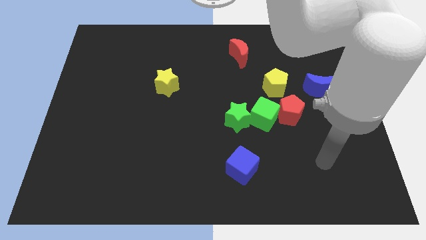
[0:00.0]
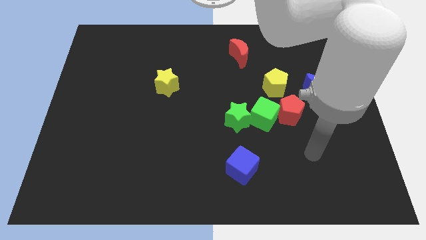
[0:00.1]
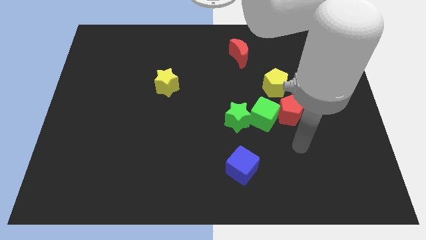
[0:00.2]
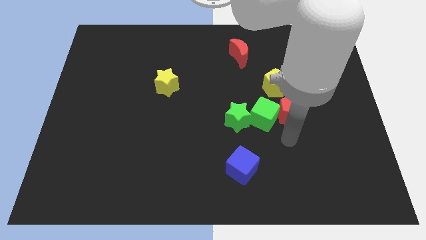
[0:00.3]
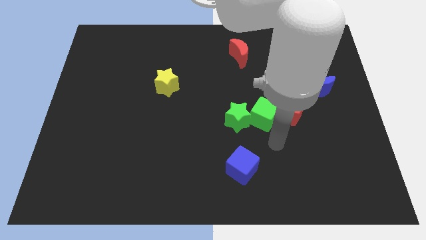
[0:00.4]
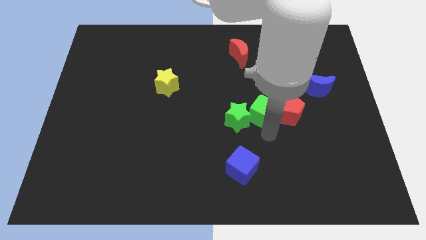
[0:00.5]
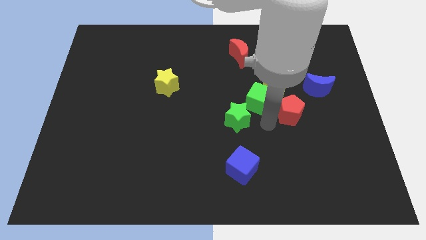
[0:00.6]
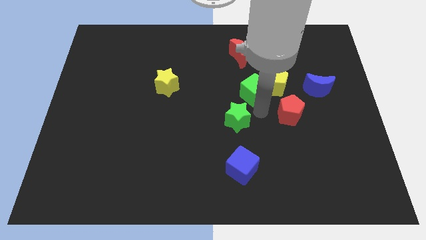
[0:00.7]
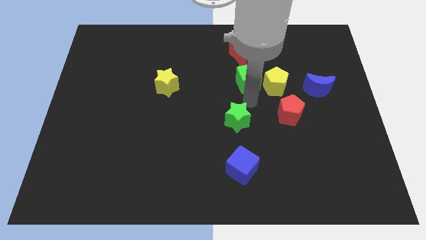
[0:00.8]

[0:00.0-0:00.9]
move the green star away from the green cube

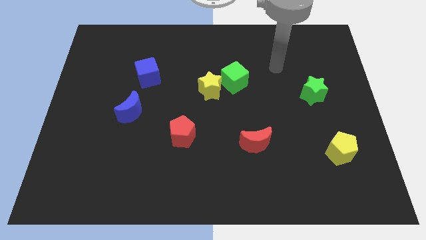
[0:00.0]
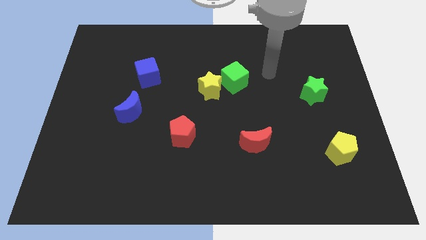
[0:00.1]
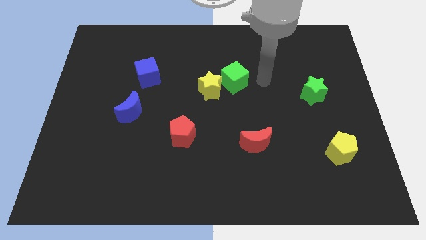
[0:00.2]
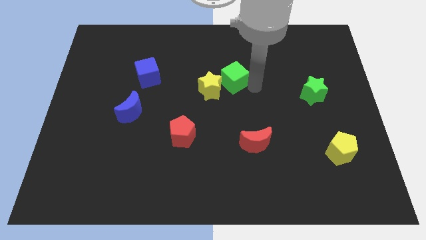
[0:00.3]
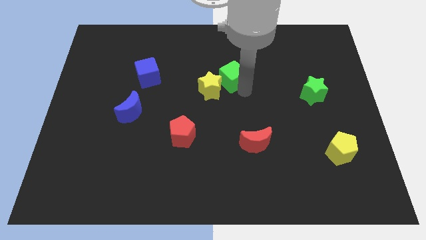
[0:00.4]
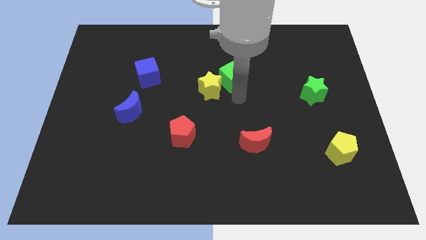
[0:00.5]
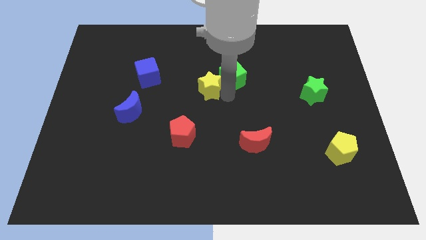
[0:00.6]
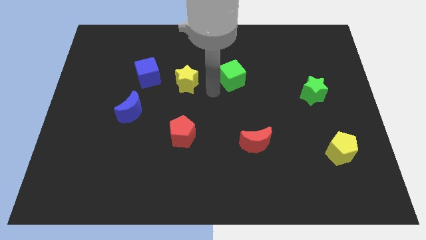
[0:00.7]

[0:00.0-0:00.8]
separate the green cube from the yellow star

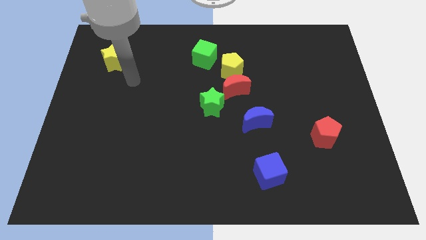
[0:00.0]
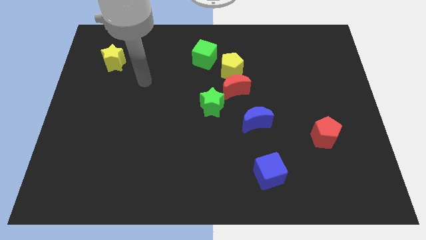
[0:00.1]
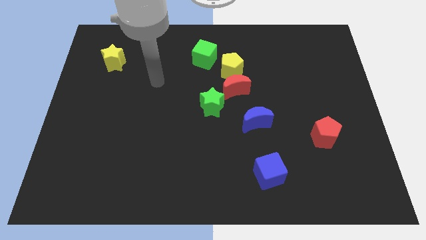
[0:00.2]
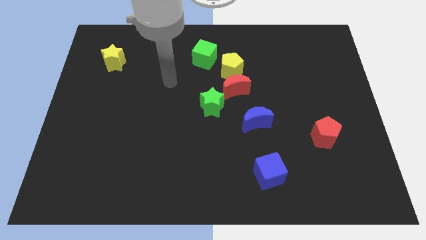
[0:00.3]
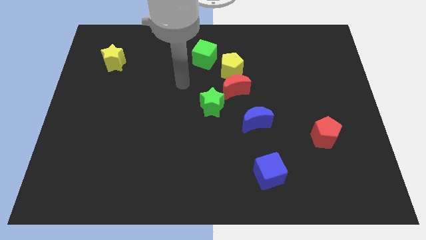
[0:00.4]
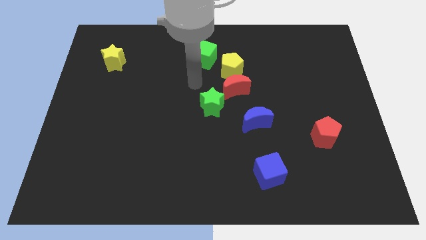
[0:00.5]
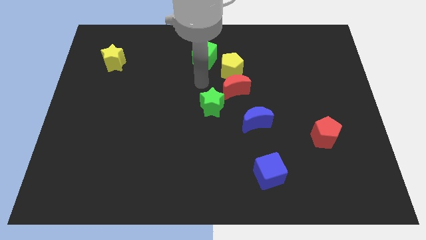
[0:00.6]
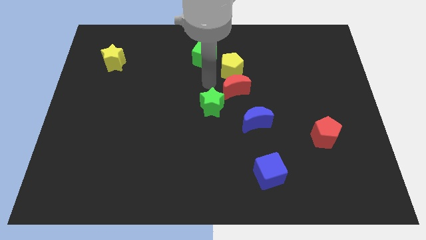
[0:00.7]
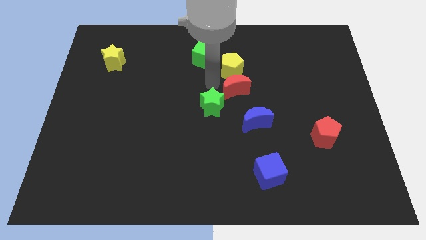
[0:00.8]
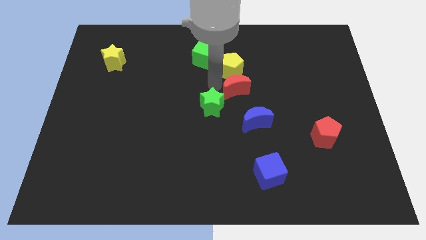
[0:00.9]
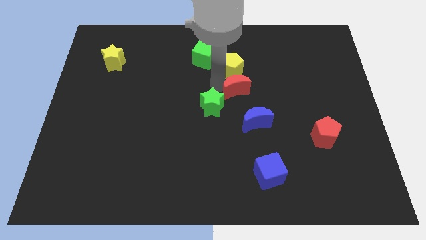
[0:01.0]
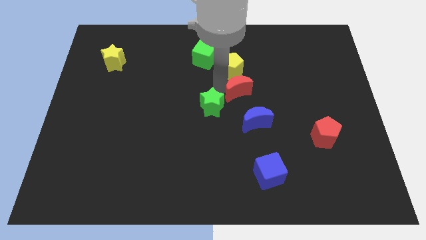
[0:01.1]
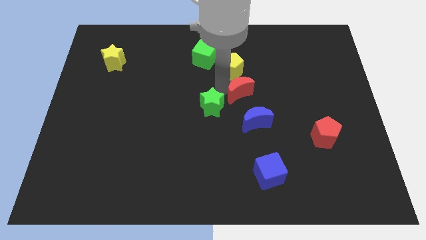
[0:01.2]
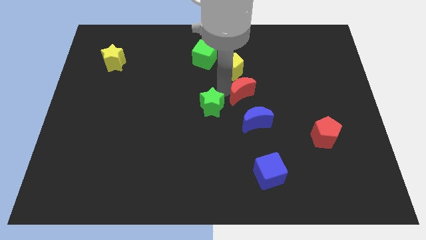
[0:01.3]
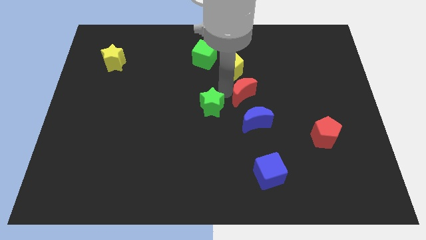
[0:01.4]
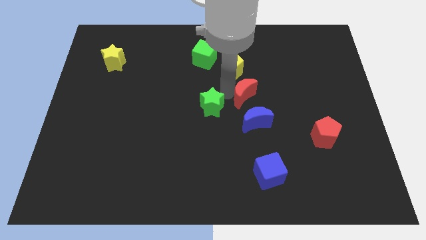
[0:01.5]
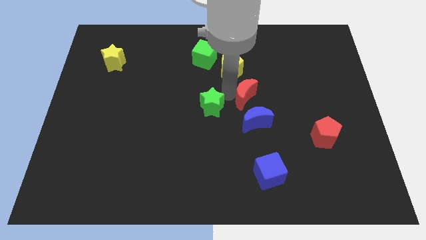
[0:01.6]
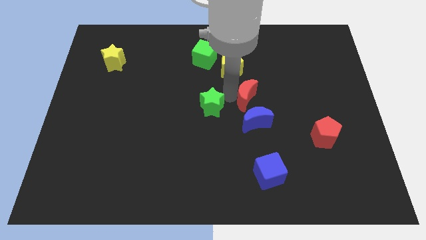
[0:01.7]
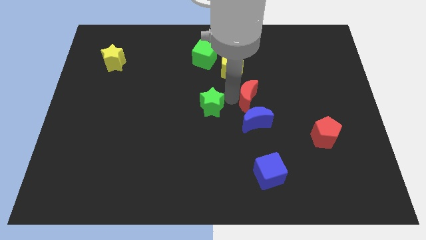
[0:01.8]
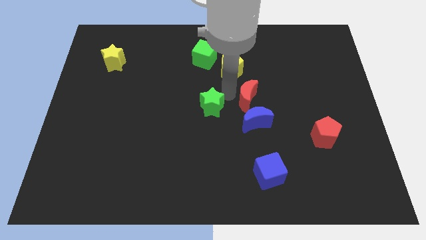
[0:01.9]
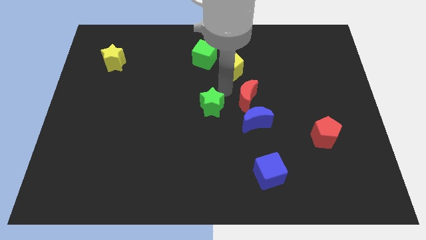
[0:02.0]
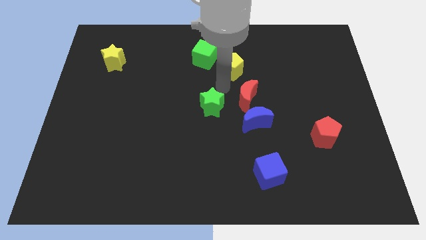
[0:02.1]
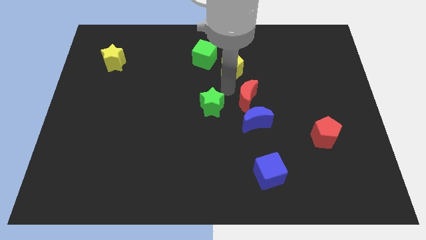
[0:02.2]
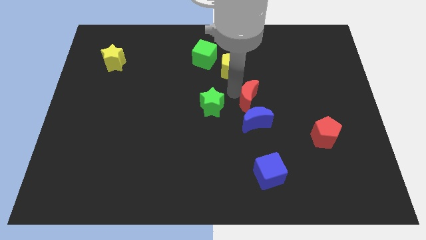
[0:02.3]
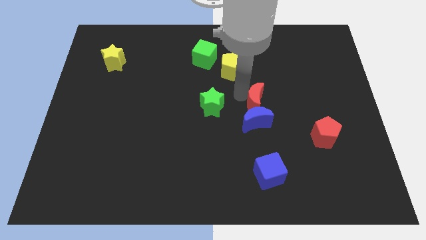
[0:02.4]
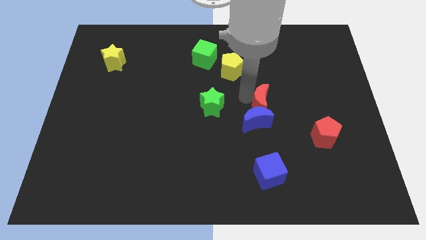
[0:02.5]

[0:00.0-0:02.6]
pull the red moon apart from the yellow pentagon and green star

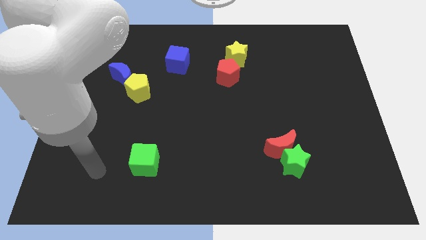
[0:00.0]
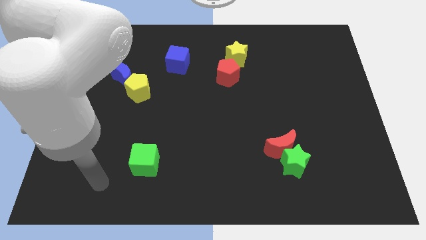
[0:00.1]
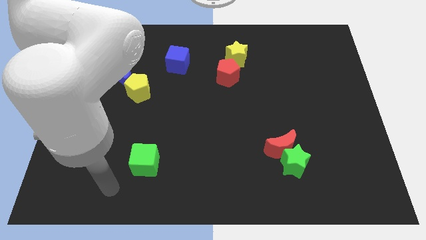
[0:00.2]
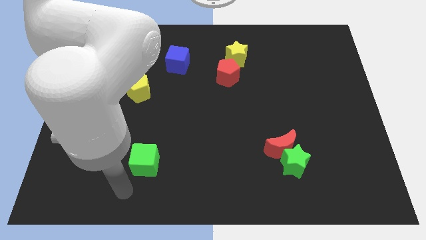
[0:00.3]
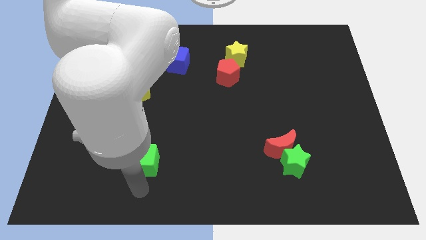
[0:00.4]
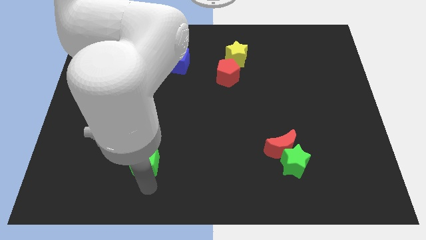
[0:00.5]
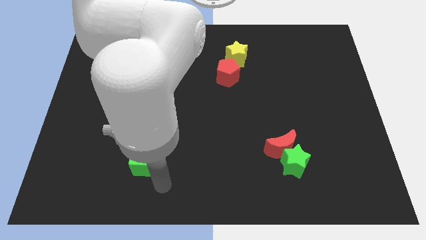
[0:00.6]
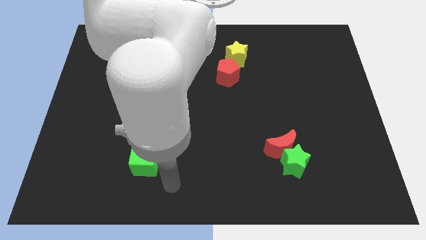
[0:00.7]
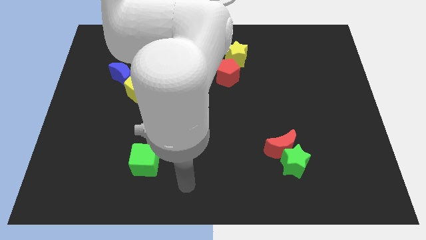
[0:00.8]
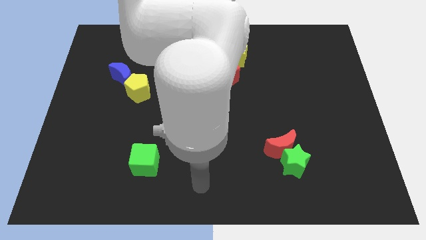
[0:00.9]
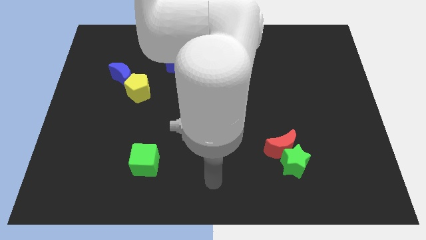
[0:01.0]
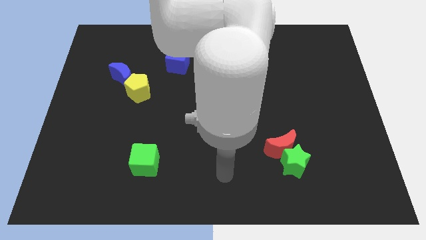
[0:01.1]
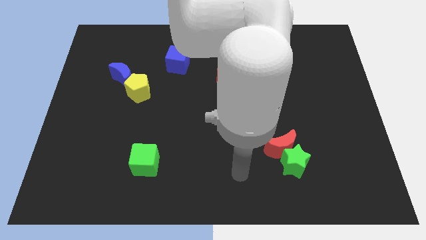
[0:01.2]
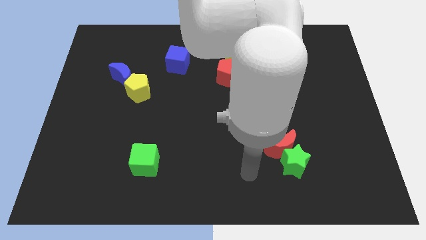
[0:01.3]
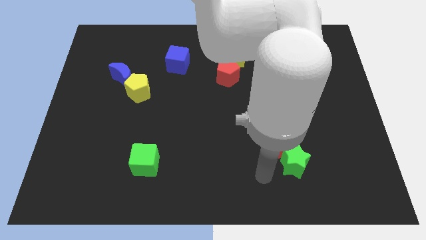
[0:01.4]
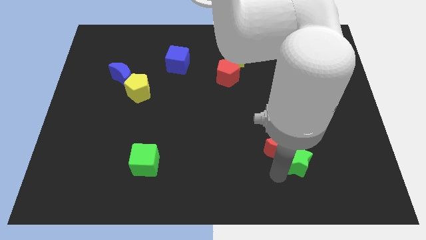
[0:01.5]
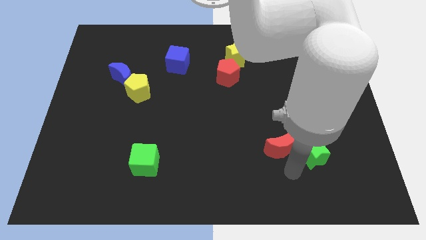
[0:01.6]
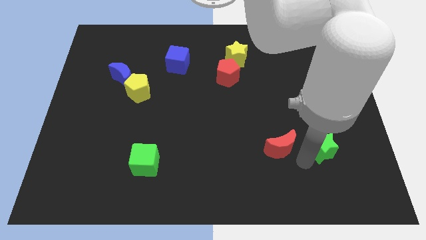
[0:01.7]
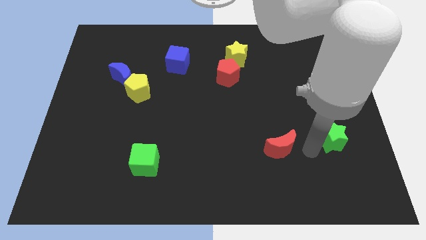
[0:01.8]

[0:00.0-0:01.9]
pull the red moon apart from the green star

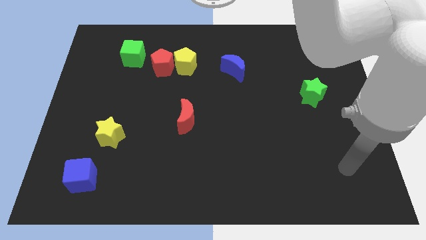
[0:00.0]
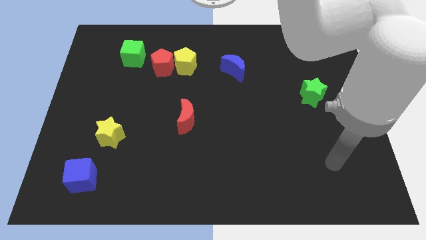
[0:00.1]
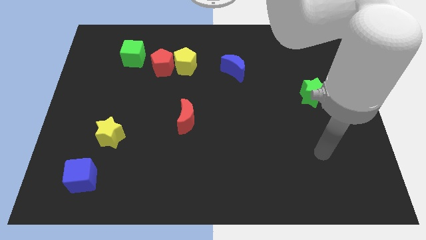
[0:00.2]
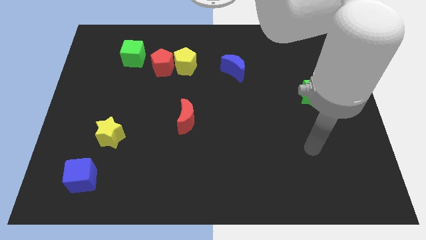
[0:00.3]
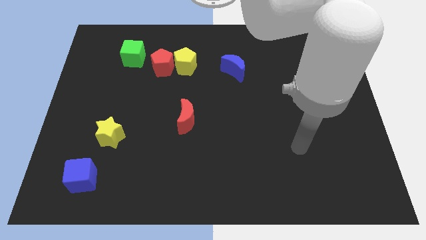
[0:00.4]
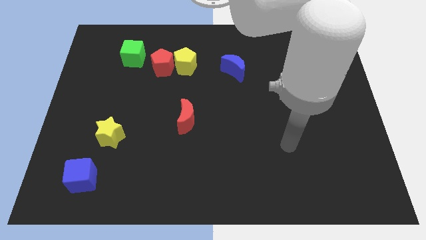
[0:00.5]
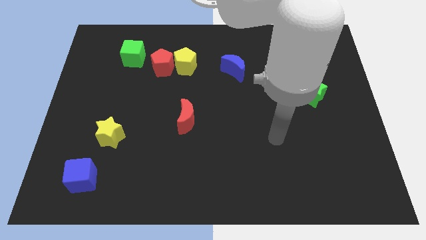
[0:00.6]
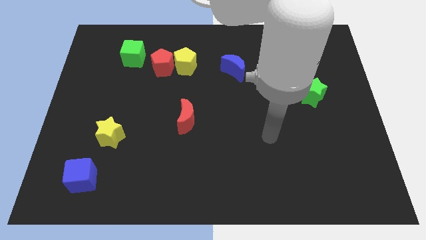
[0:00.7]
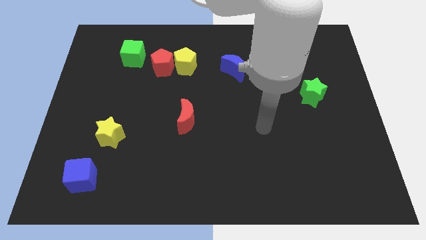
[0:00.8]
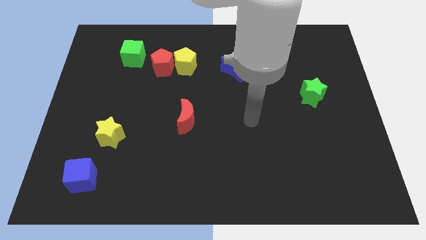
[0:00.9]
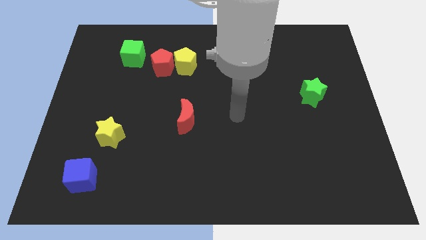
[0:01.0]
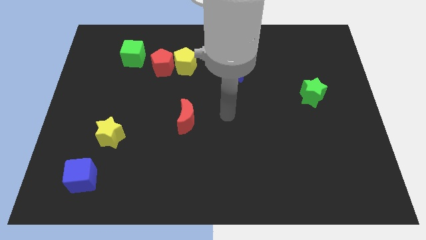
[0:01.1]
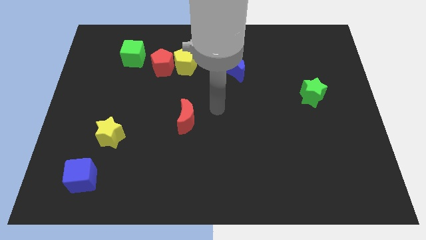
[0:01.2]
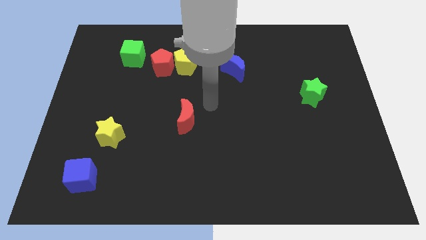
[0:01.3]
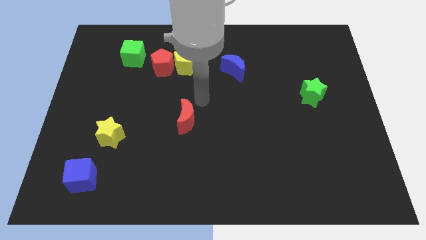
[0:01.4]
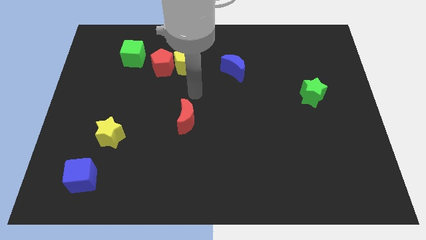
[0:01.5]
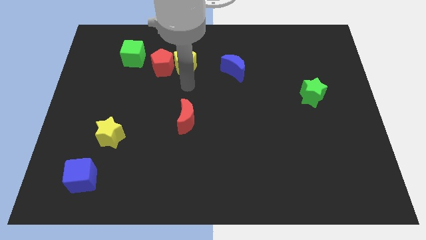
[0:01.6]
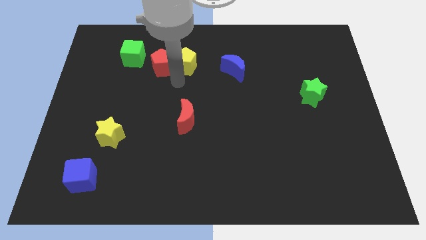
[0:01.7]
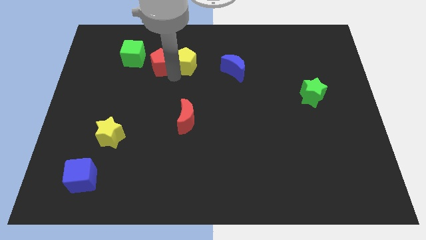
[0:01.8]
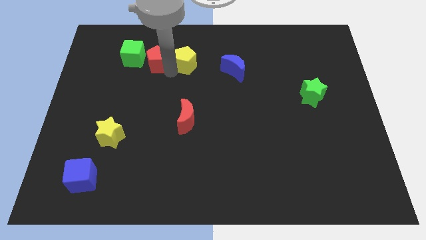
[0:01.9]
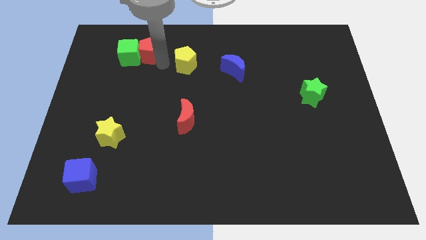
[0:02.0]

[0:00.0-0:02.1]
pull the yellow pentagon apart from the red pentagon

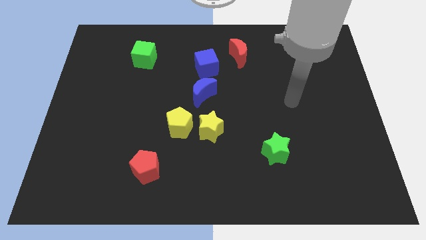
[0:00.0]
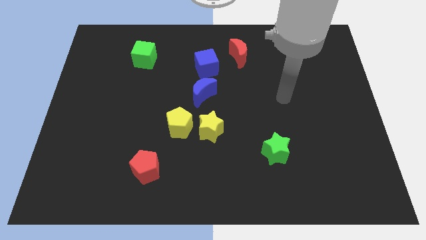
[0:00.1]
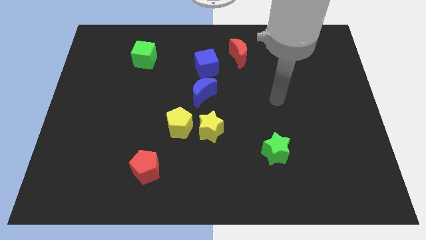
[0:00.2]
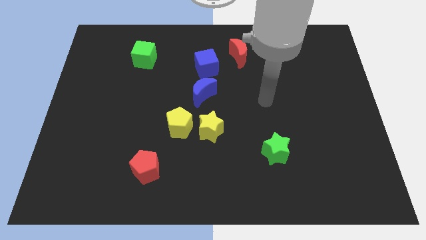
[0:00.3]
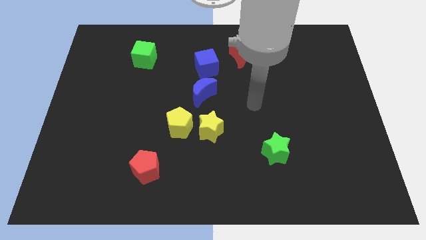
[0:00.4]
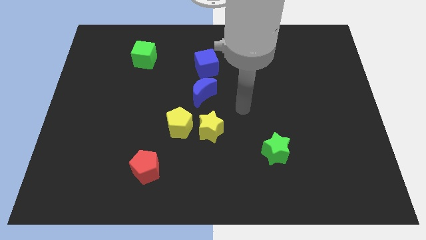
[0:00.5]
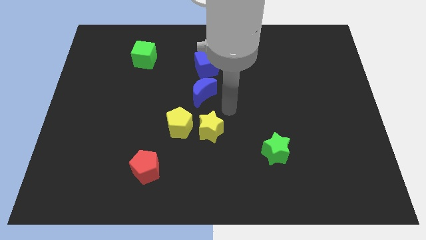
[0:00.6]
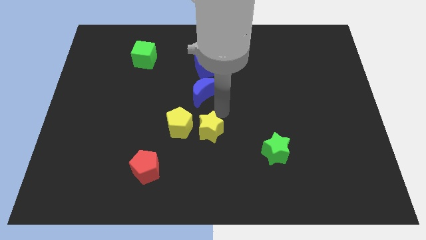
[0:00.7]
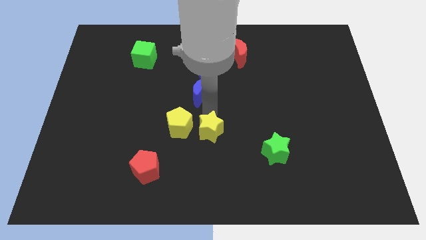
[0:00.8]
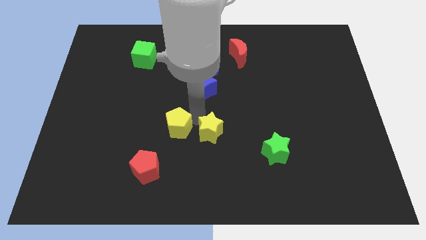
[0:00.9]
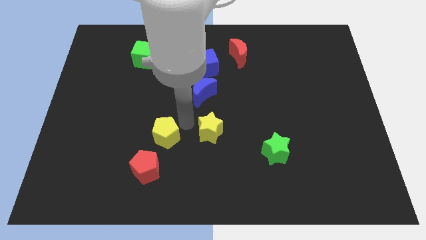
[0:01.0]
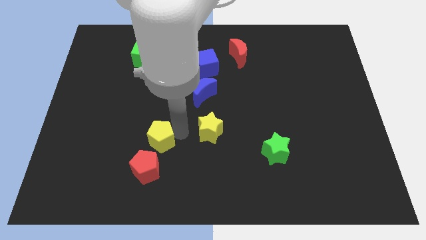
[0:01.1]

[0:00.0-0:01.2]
pull the yellow star apart from the yellow pentagon
